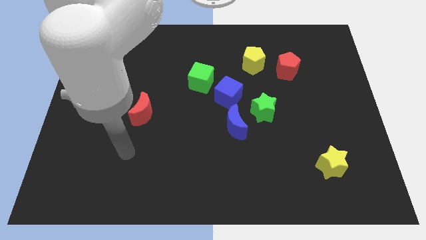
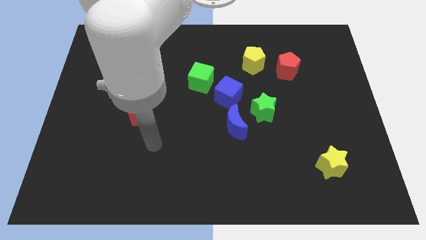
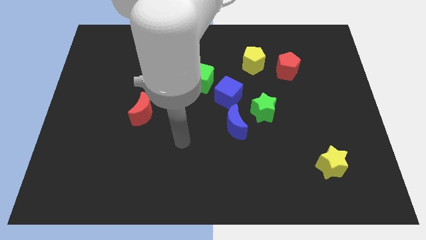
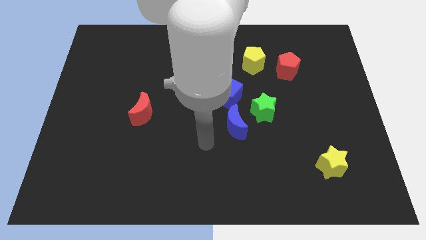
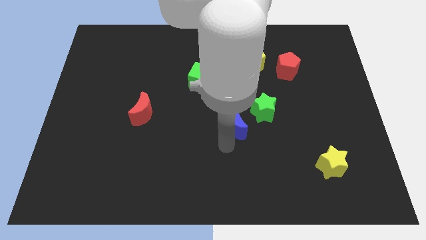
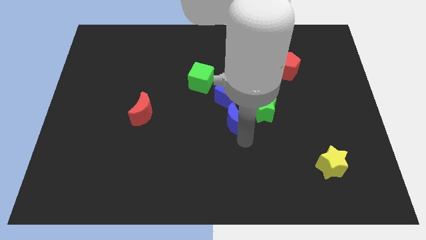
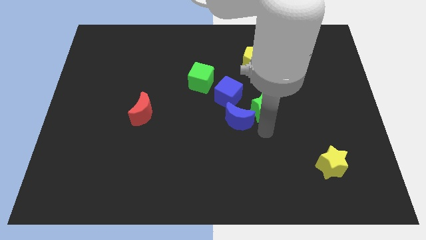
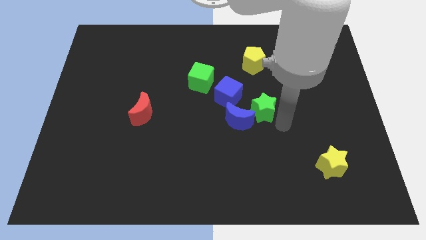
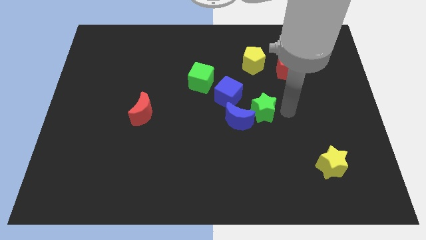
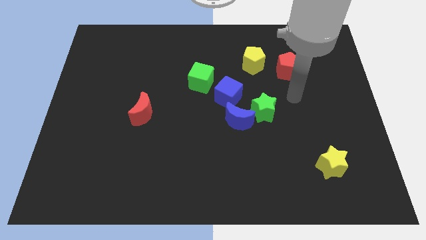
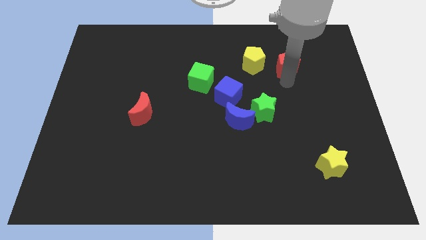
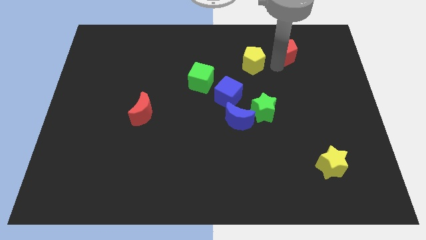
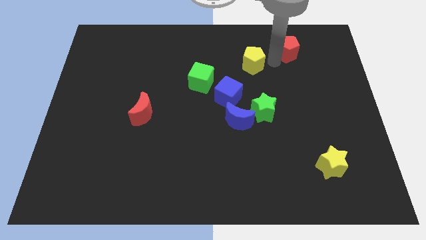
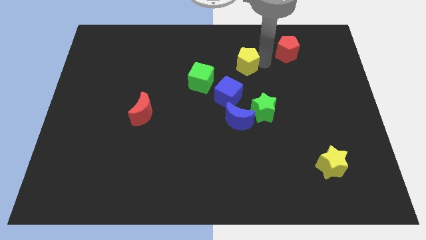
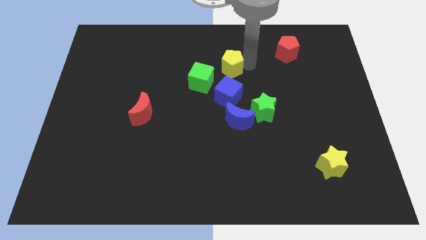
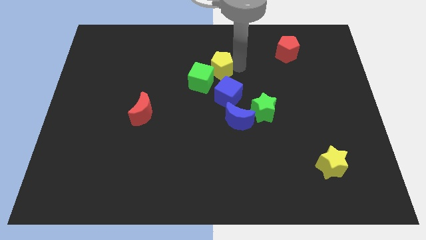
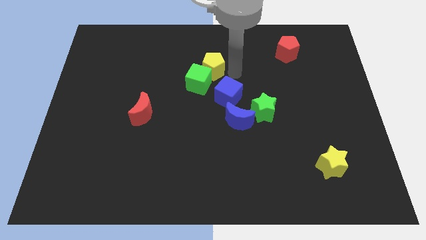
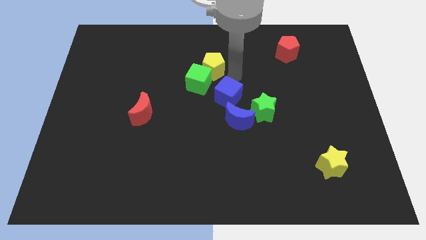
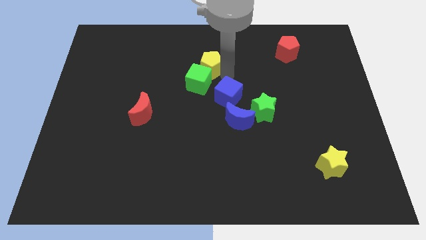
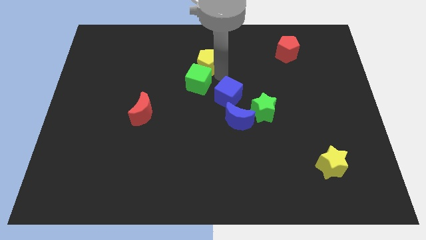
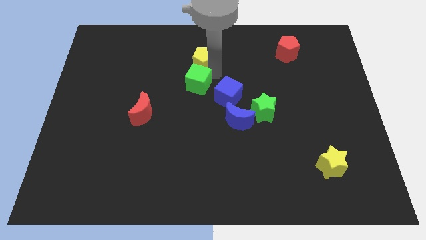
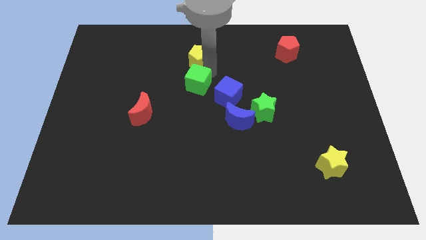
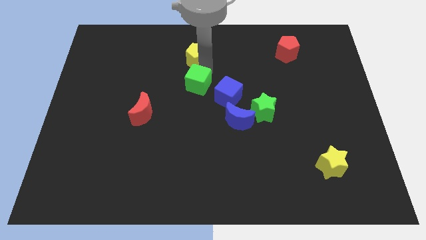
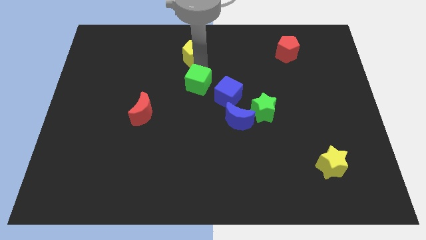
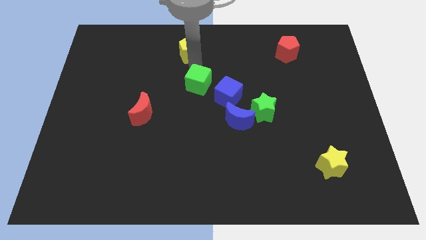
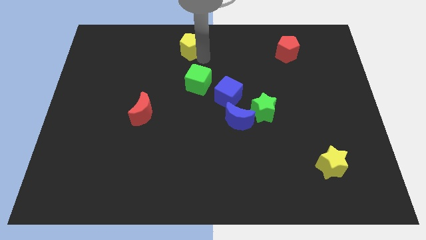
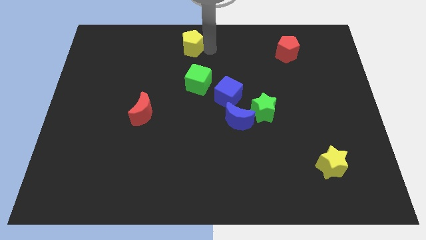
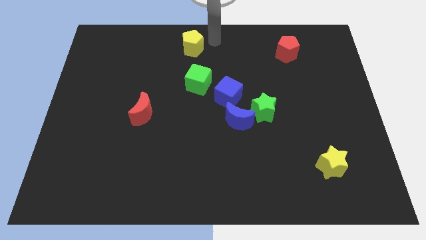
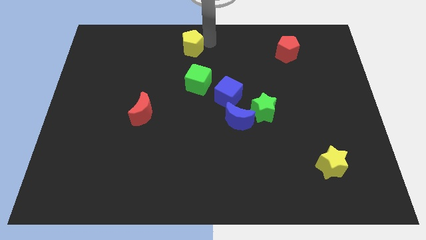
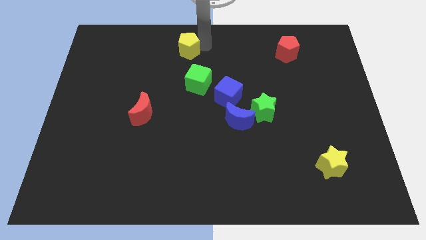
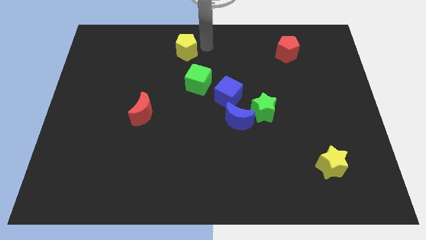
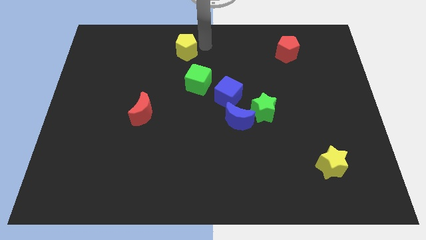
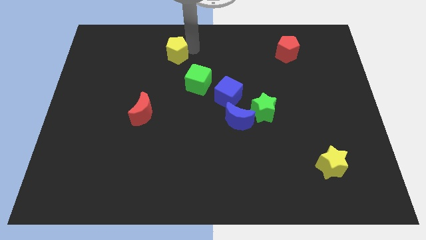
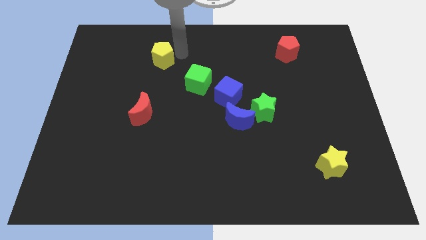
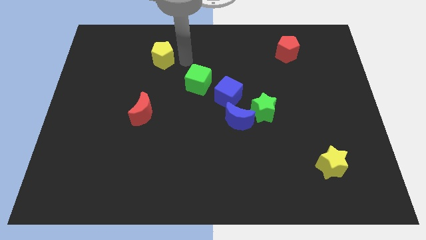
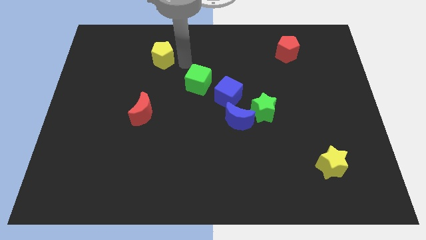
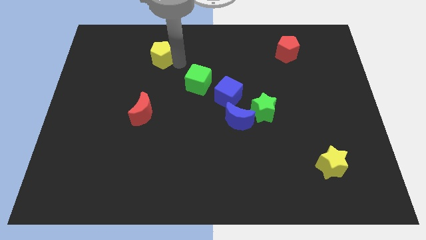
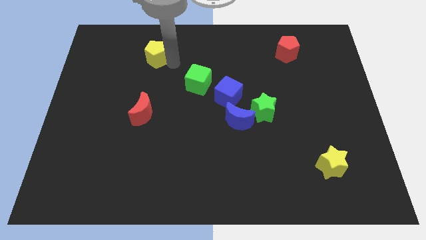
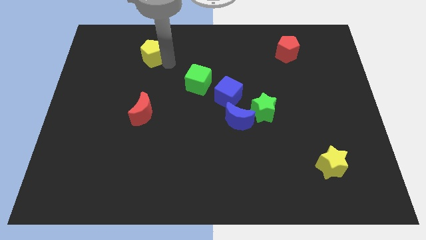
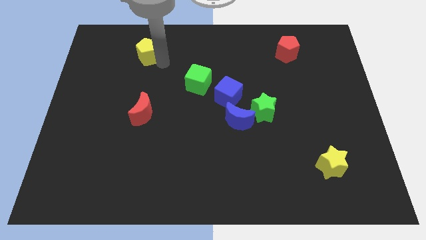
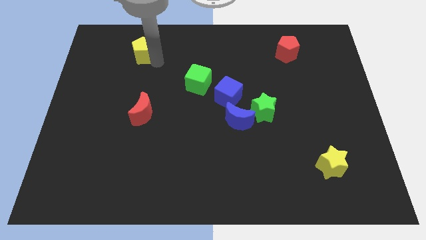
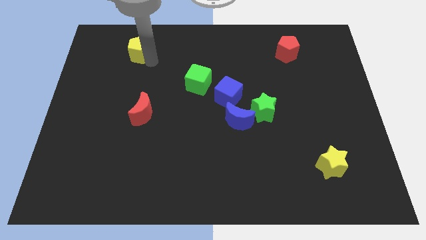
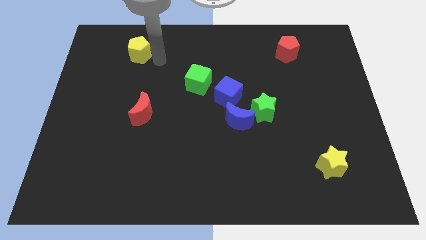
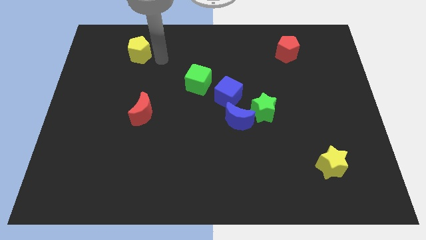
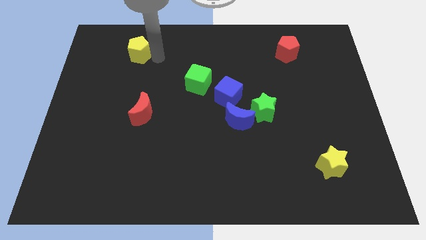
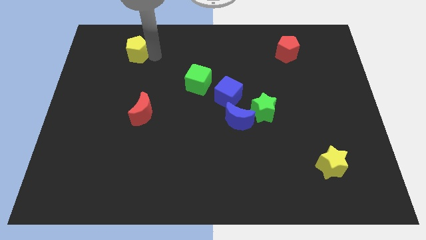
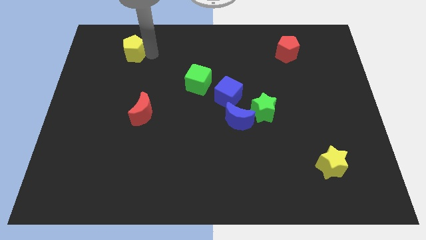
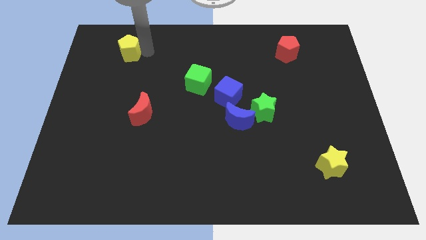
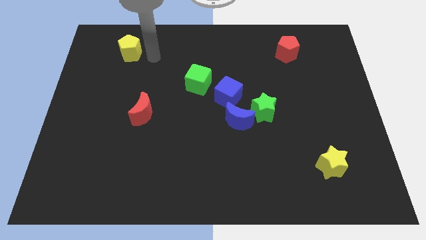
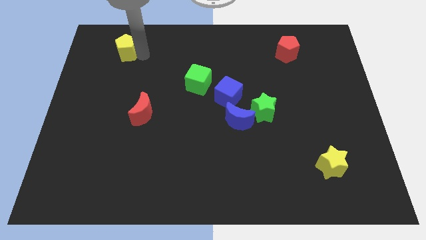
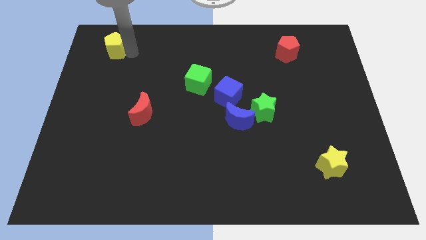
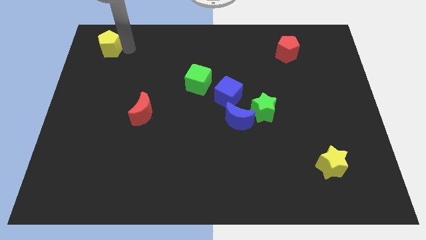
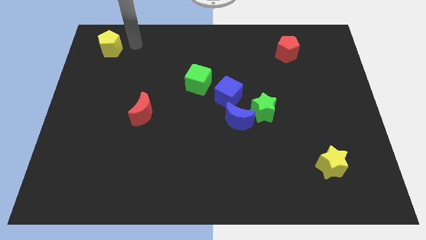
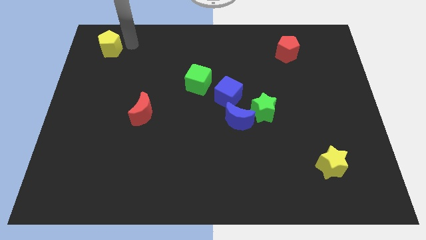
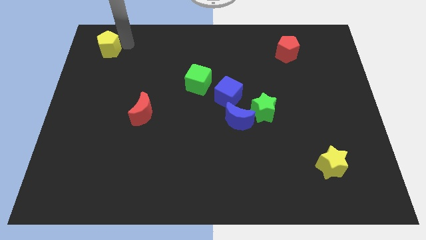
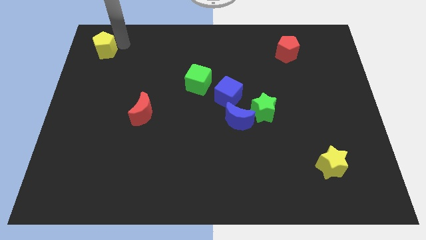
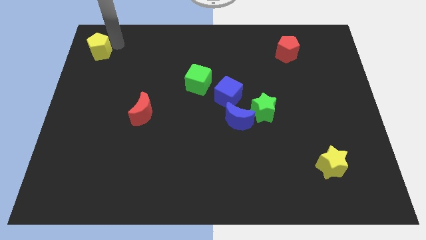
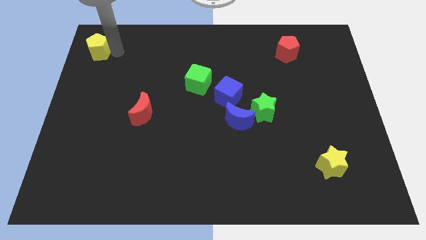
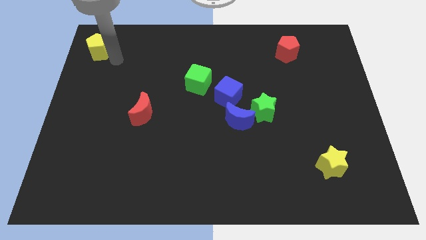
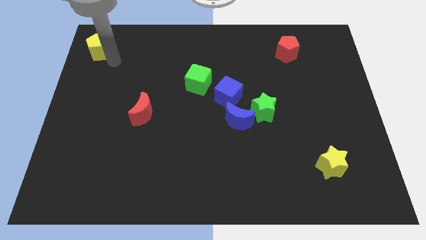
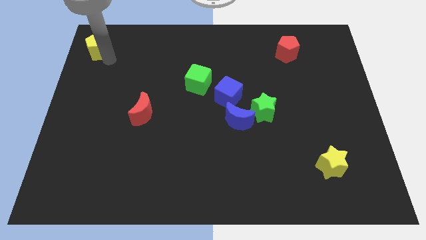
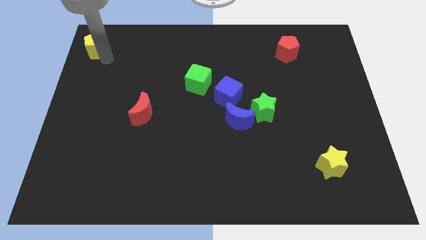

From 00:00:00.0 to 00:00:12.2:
move the yellow pentagon to the top left corner

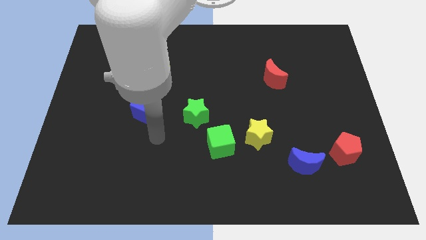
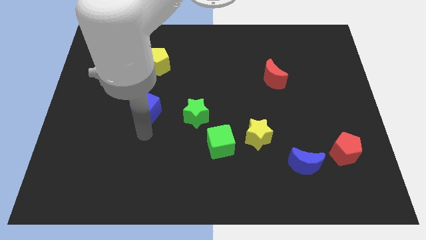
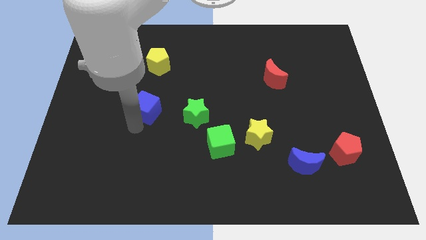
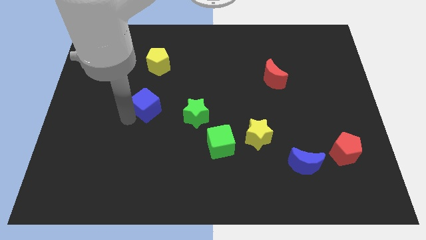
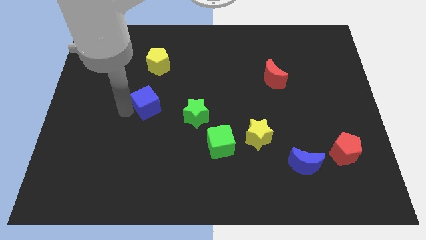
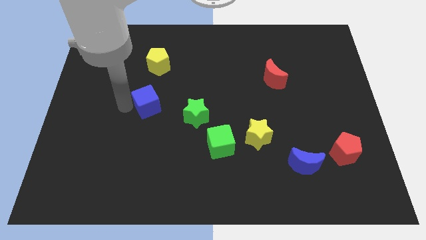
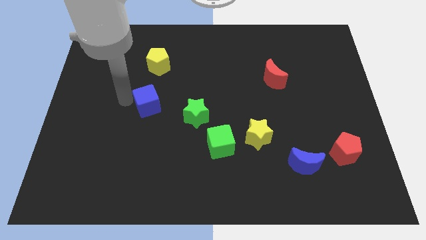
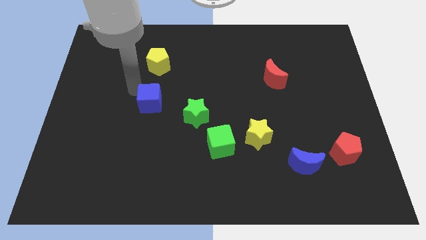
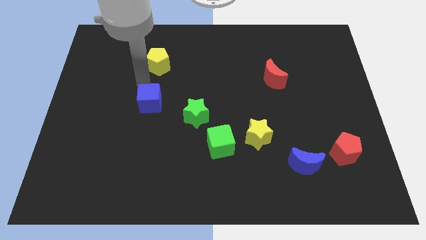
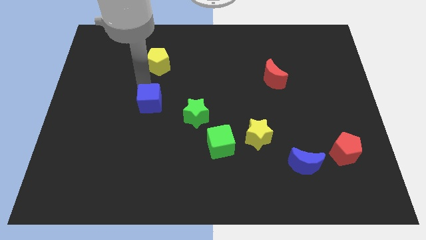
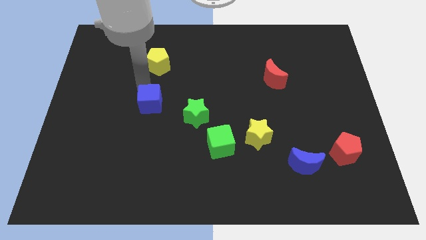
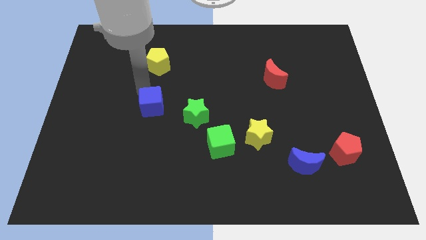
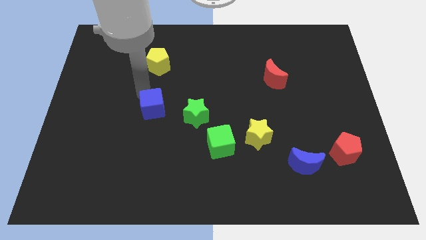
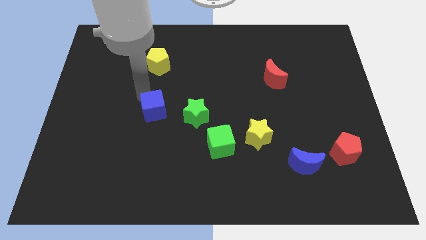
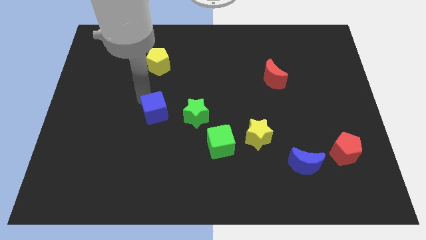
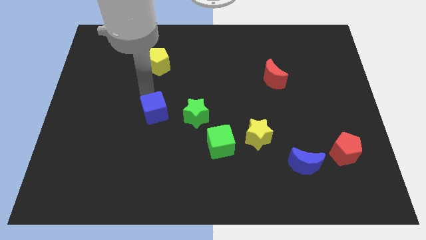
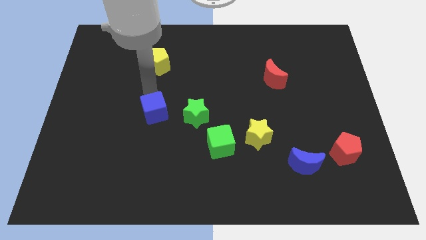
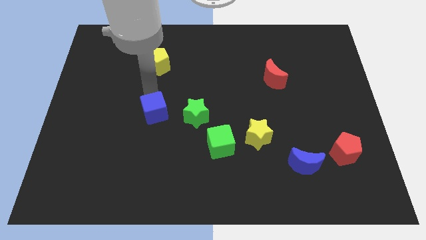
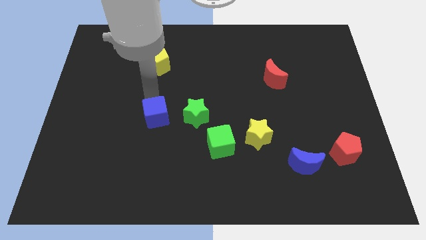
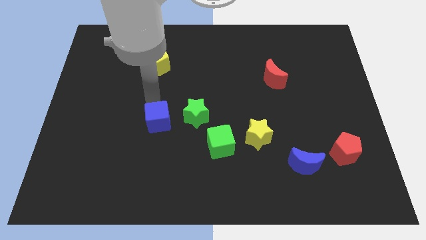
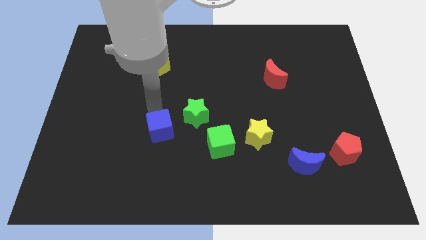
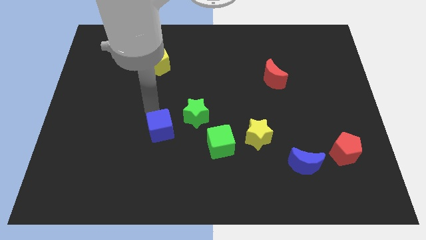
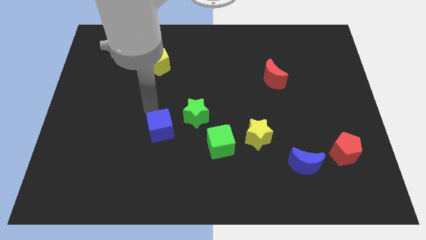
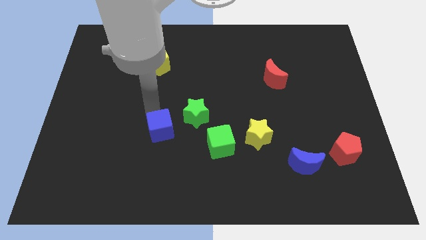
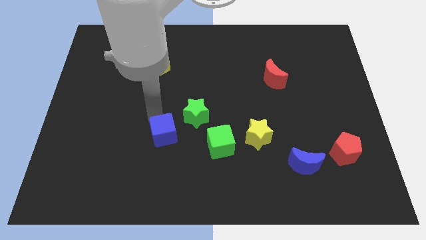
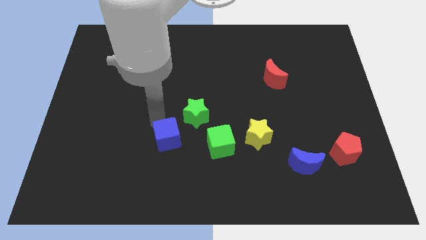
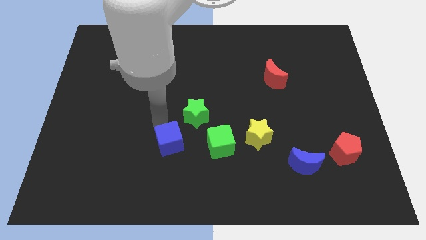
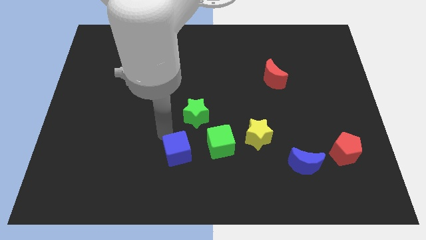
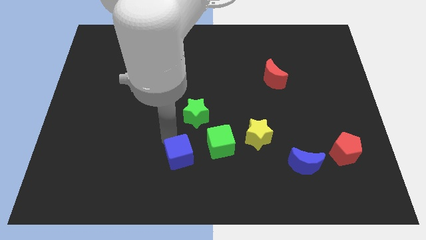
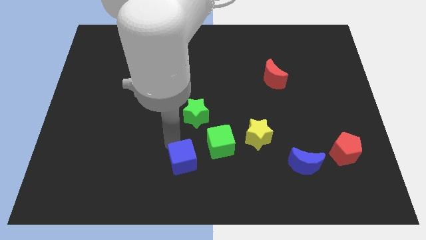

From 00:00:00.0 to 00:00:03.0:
put the blue cube to the bottom
